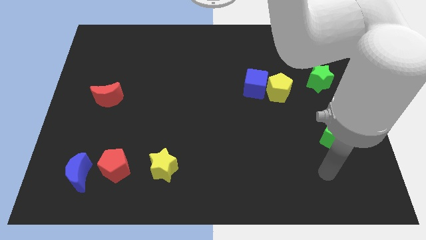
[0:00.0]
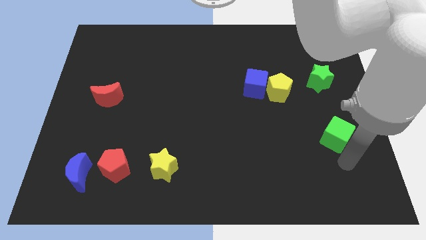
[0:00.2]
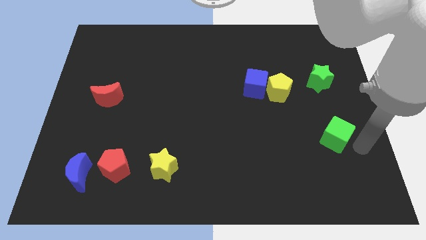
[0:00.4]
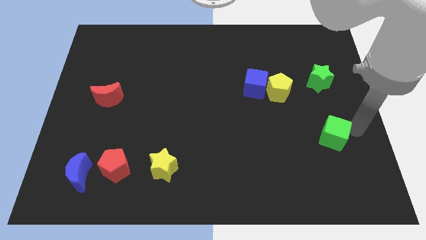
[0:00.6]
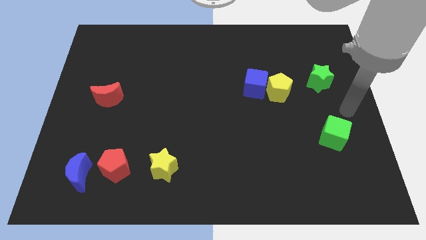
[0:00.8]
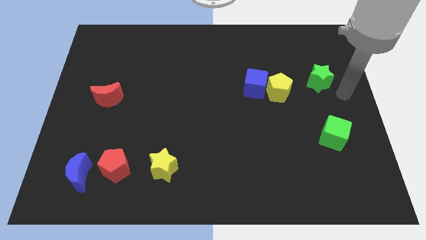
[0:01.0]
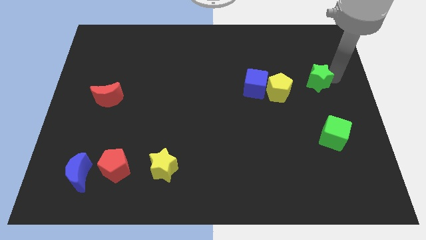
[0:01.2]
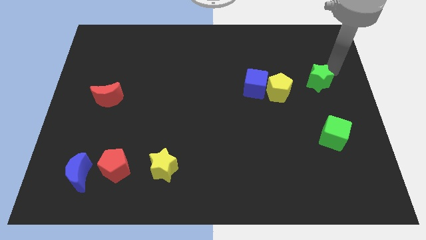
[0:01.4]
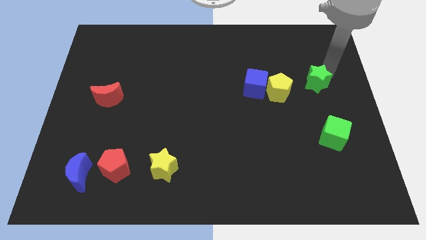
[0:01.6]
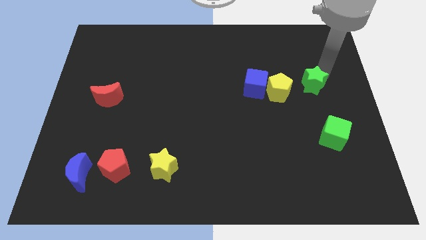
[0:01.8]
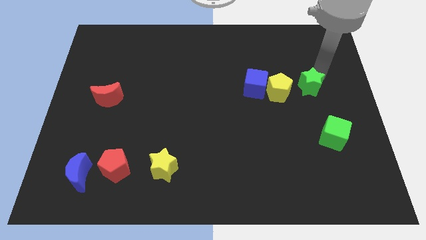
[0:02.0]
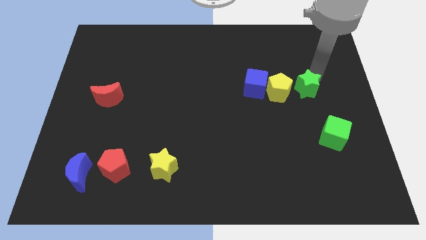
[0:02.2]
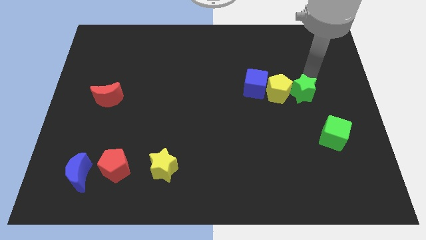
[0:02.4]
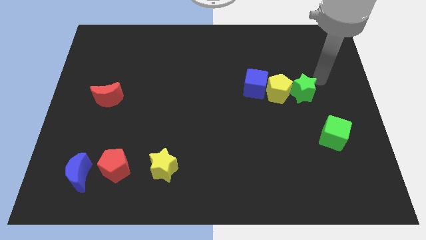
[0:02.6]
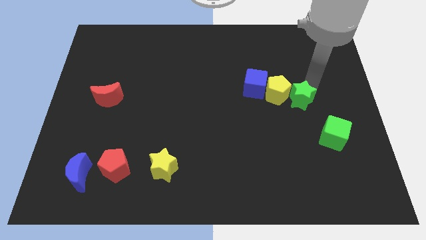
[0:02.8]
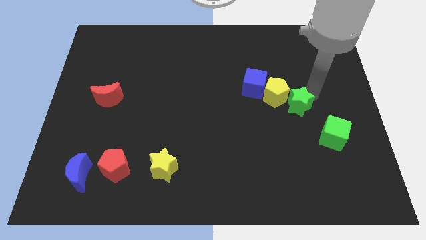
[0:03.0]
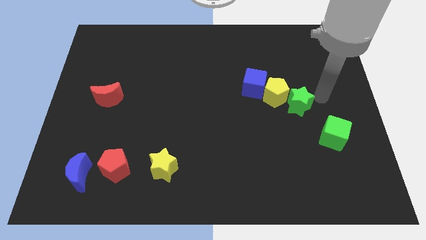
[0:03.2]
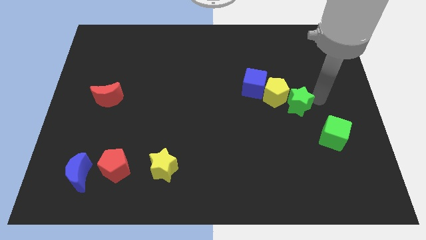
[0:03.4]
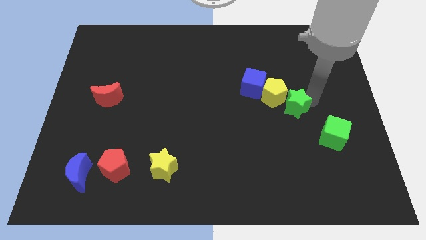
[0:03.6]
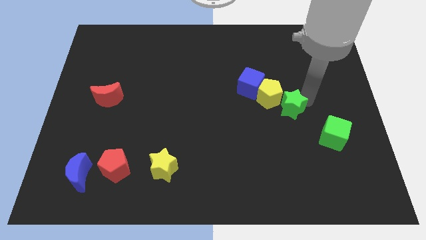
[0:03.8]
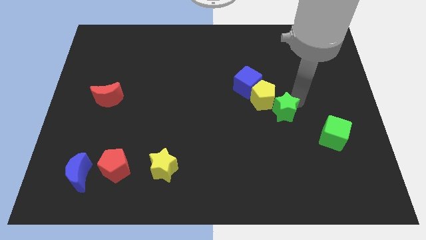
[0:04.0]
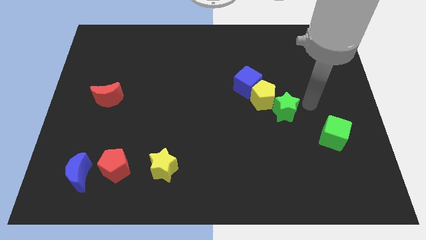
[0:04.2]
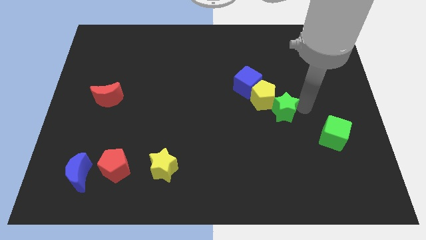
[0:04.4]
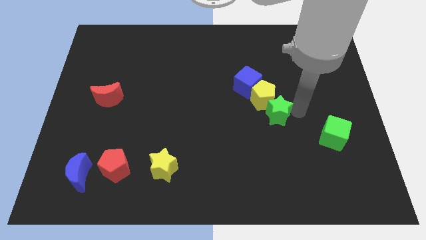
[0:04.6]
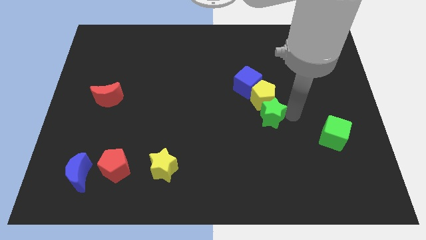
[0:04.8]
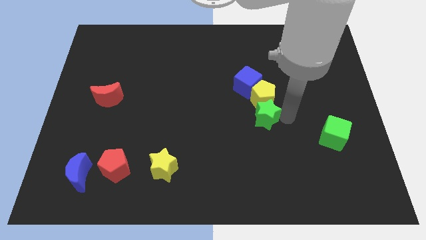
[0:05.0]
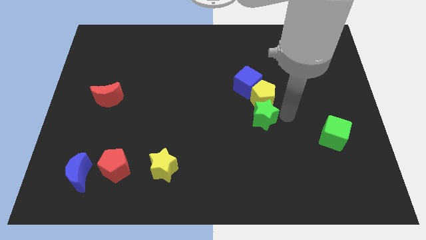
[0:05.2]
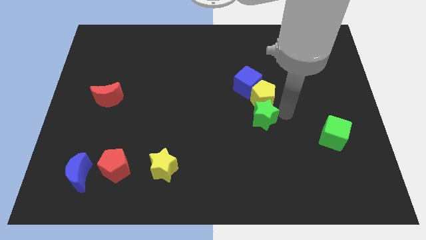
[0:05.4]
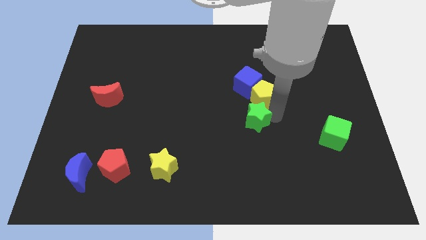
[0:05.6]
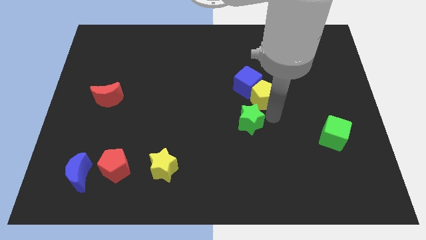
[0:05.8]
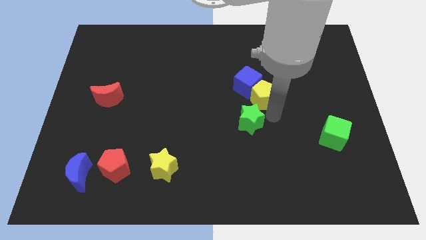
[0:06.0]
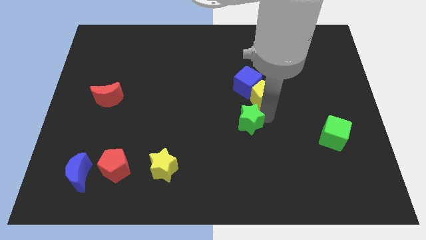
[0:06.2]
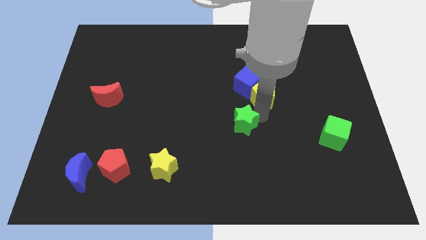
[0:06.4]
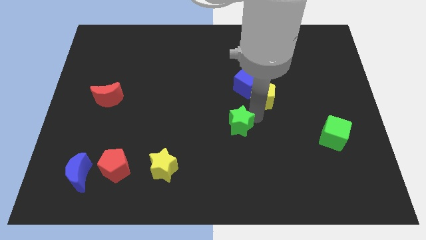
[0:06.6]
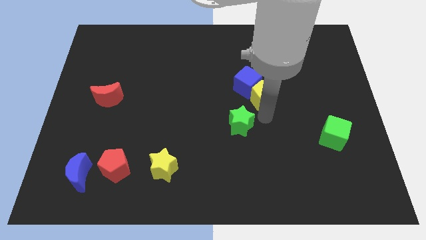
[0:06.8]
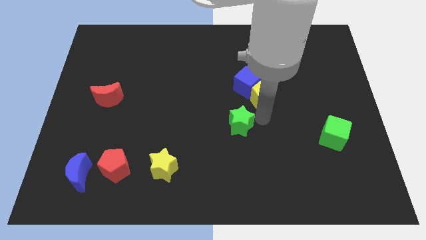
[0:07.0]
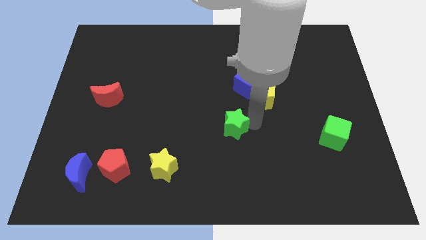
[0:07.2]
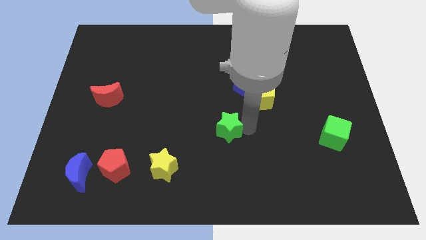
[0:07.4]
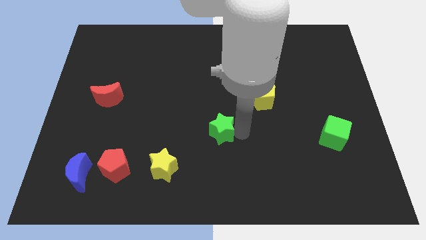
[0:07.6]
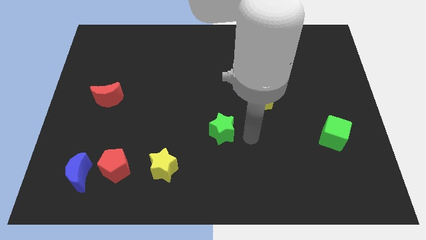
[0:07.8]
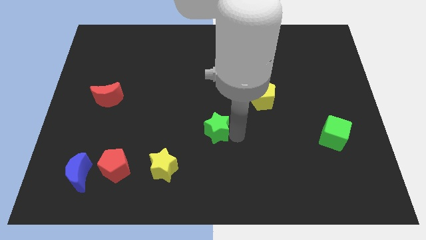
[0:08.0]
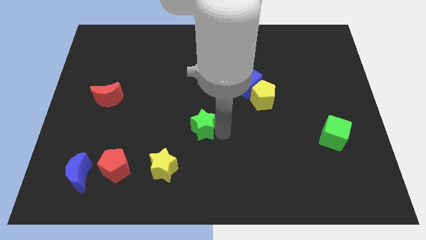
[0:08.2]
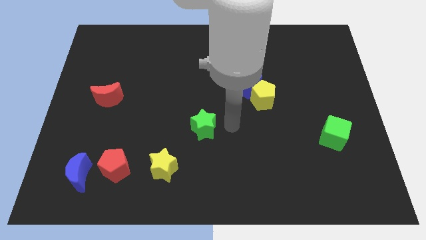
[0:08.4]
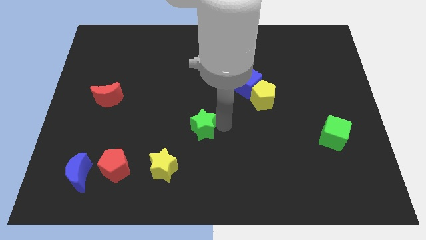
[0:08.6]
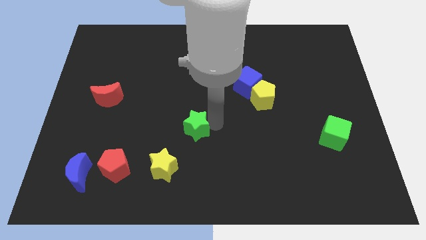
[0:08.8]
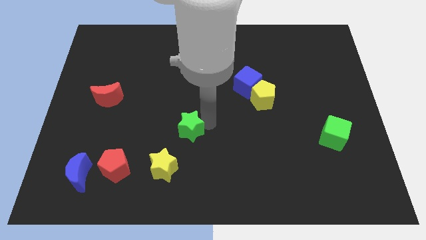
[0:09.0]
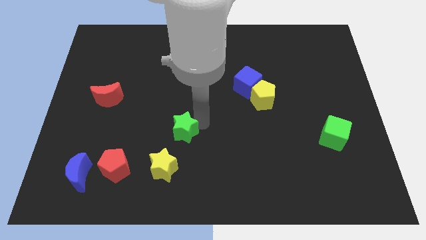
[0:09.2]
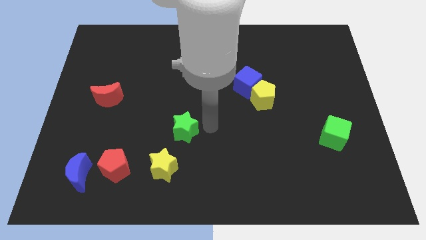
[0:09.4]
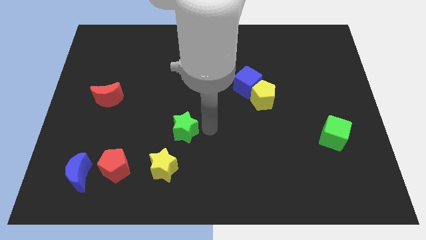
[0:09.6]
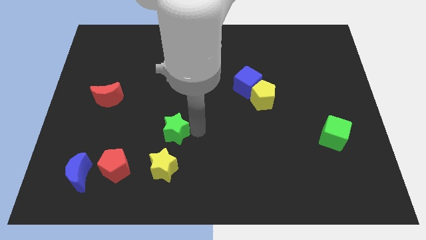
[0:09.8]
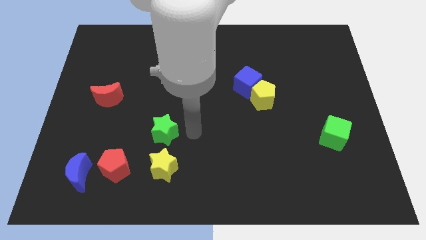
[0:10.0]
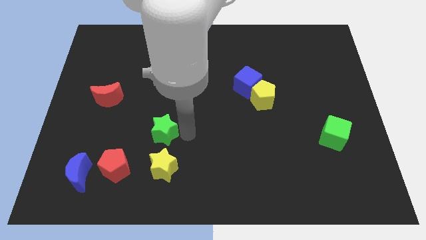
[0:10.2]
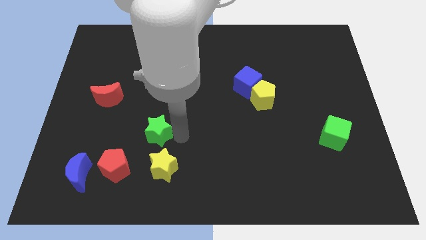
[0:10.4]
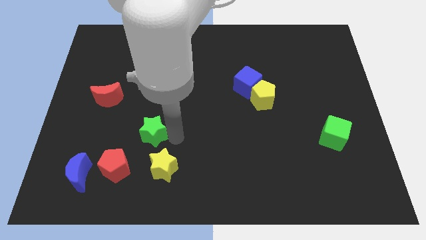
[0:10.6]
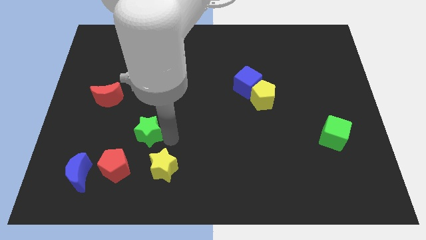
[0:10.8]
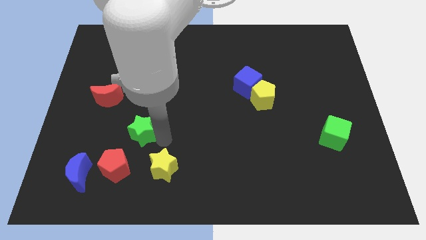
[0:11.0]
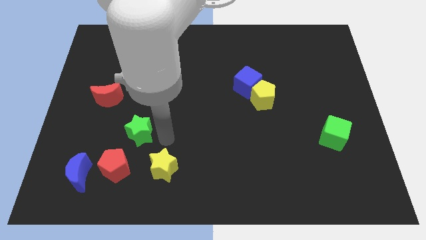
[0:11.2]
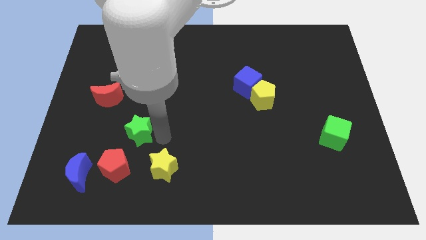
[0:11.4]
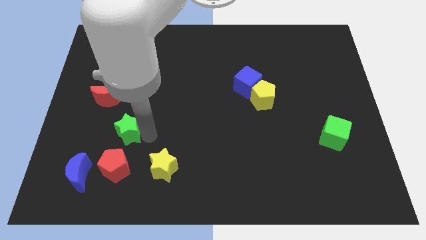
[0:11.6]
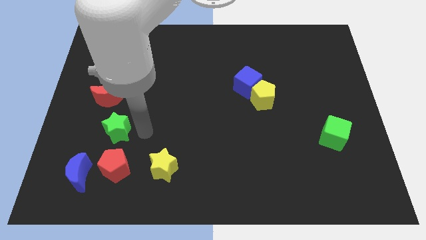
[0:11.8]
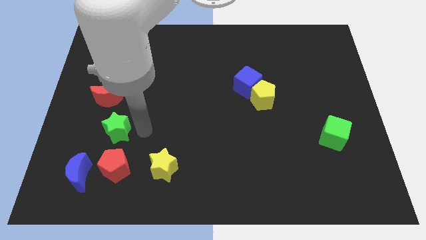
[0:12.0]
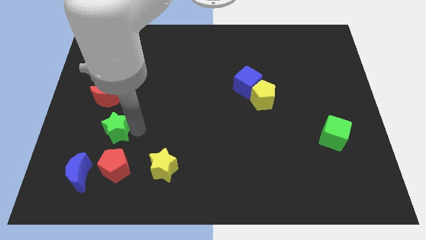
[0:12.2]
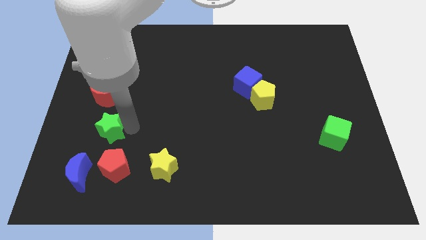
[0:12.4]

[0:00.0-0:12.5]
move the green star to the top of the blue moon

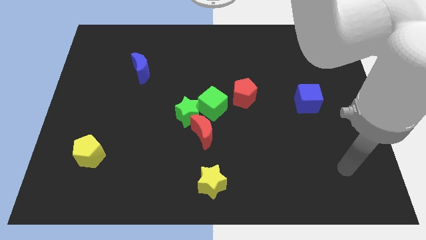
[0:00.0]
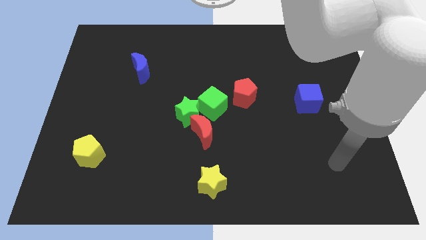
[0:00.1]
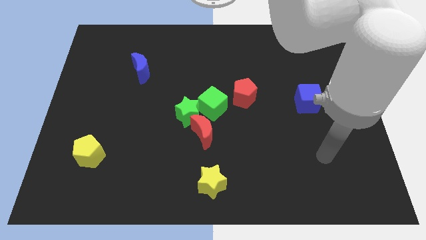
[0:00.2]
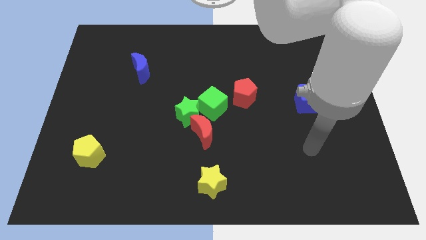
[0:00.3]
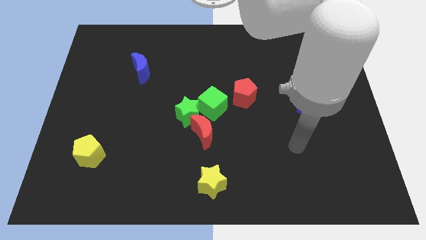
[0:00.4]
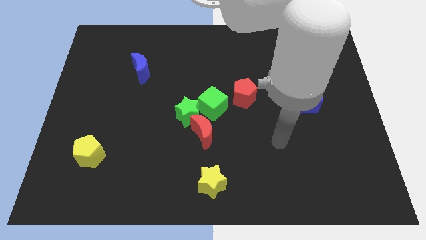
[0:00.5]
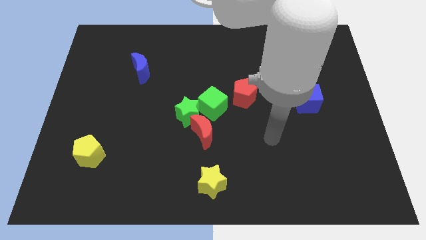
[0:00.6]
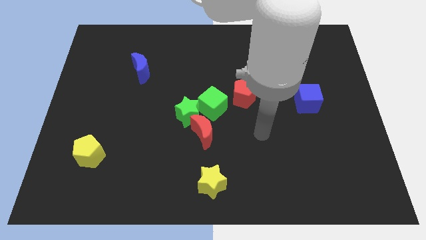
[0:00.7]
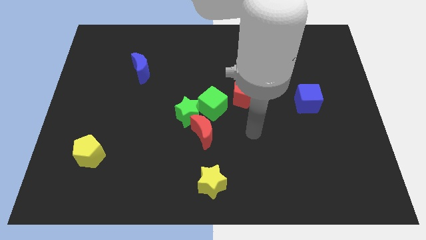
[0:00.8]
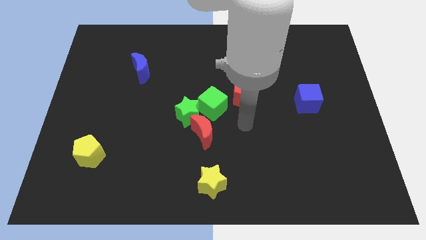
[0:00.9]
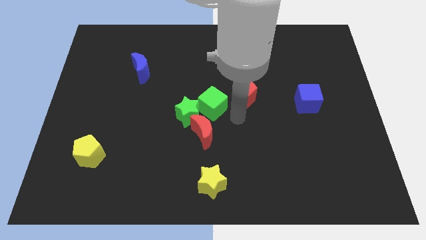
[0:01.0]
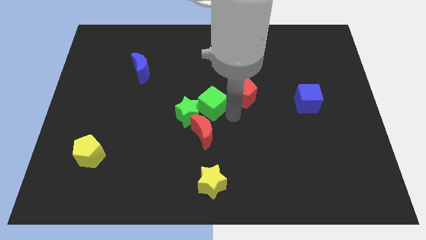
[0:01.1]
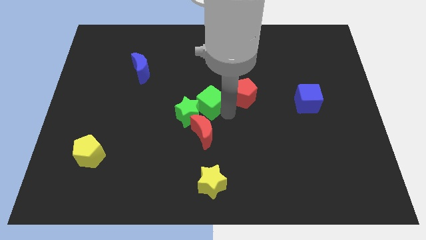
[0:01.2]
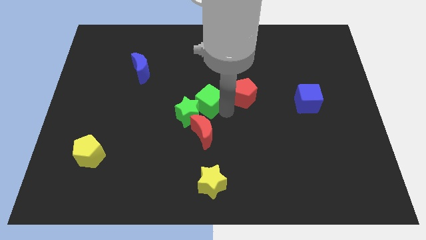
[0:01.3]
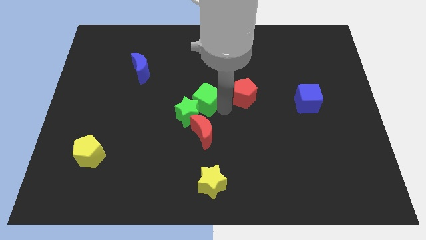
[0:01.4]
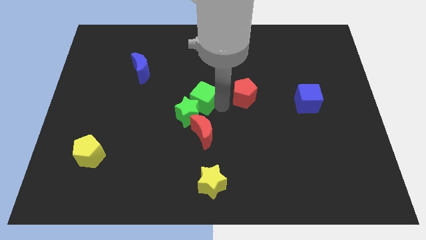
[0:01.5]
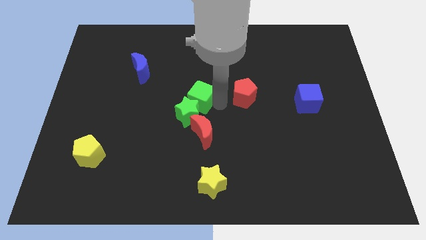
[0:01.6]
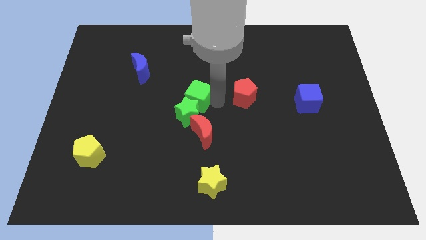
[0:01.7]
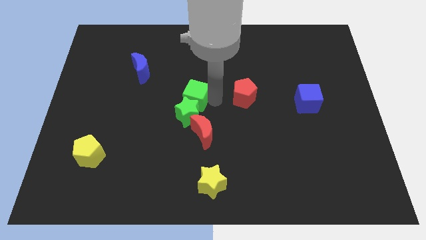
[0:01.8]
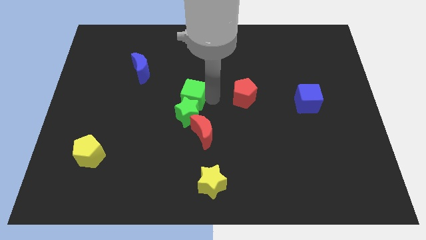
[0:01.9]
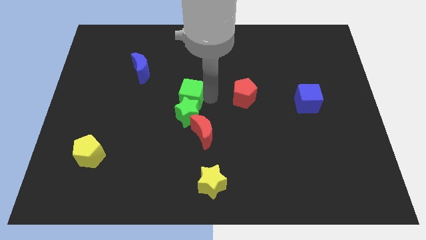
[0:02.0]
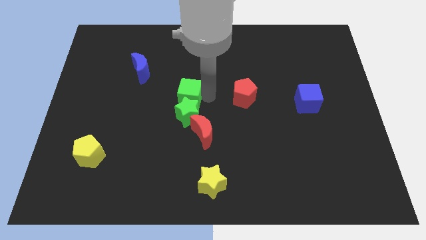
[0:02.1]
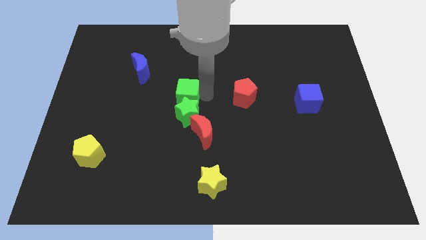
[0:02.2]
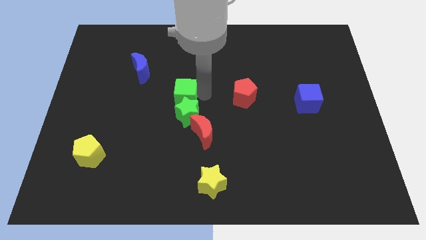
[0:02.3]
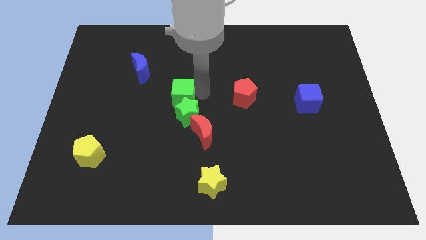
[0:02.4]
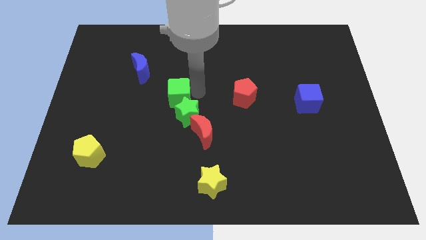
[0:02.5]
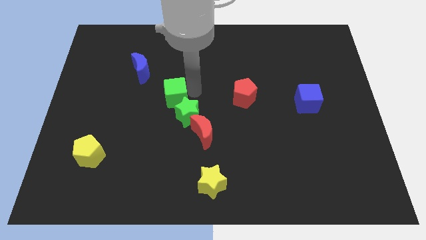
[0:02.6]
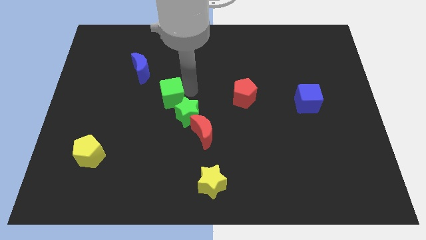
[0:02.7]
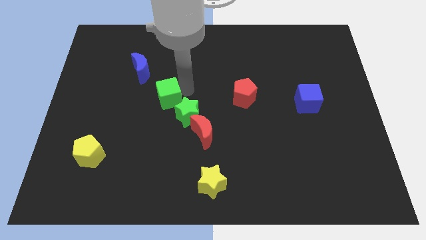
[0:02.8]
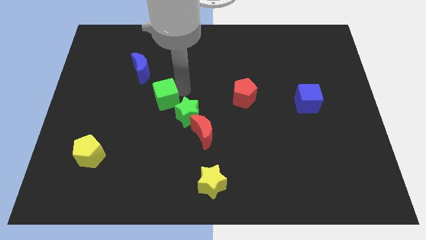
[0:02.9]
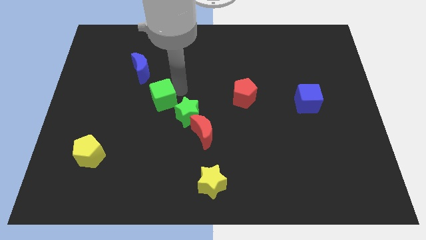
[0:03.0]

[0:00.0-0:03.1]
put the green cube left of the green star
